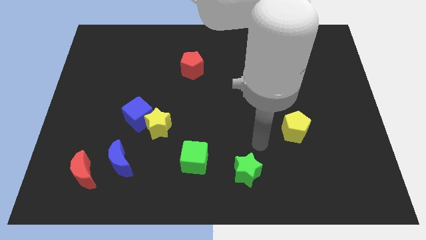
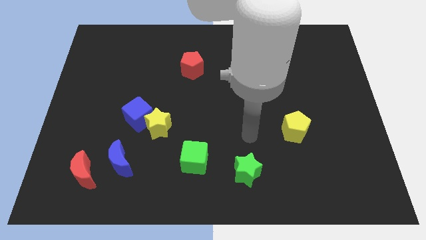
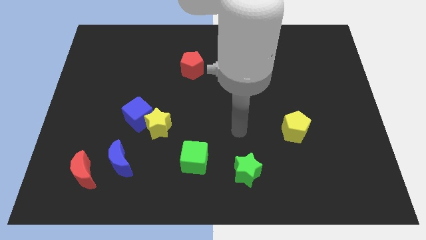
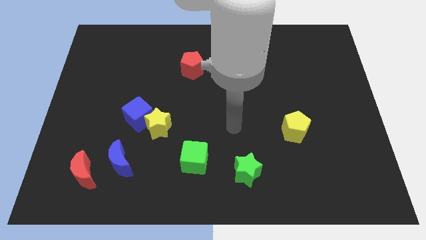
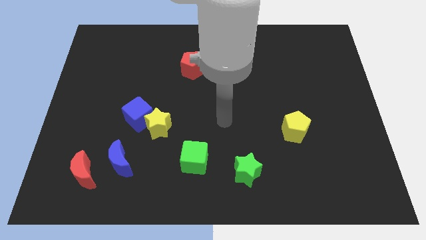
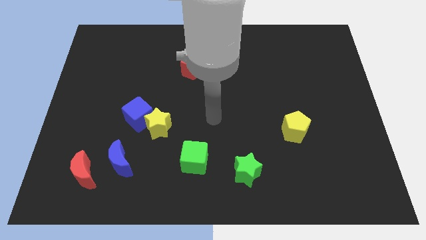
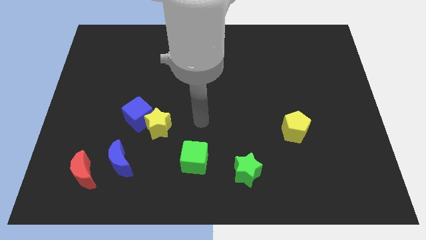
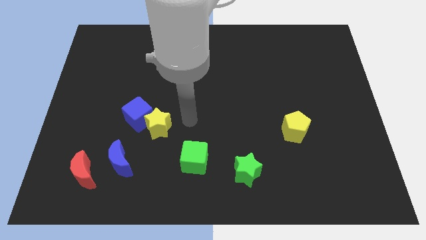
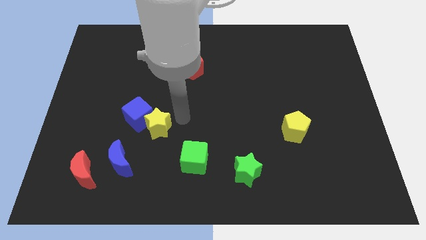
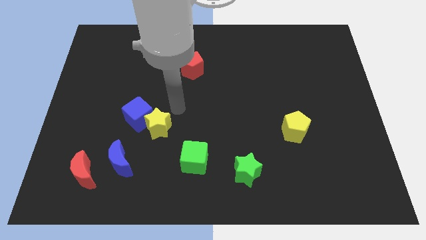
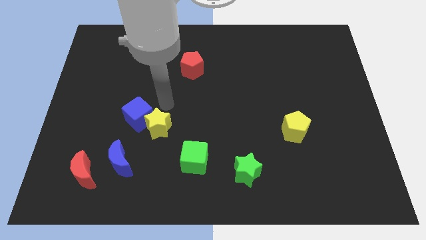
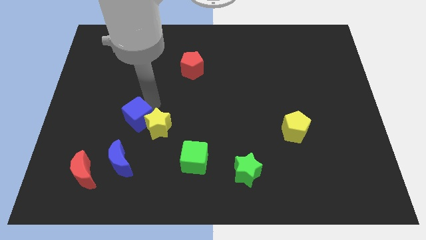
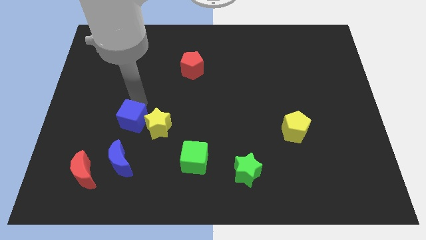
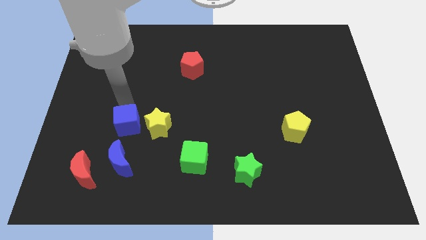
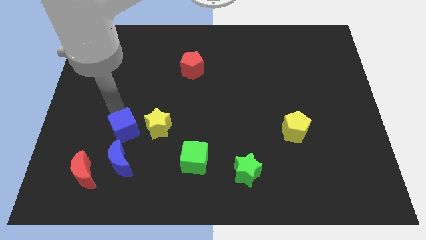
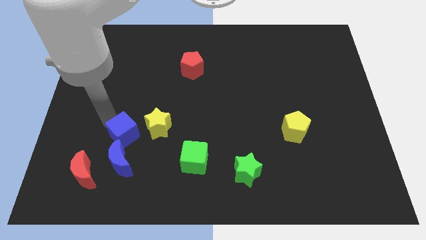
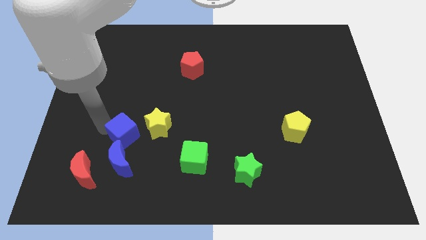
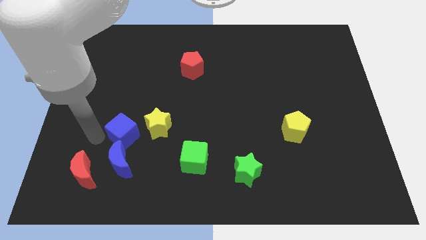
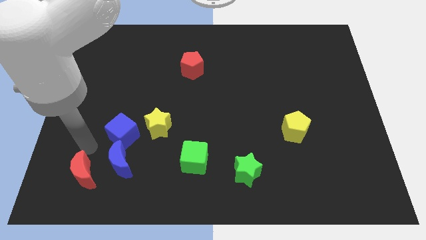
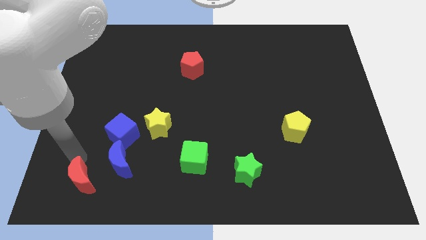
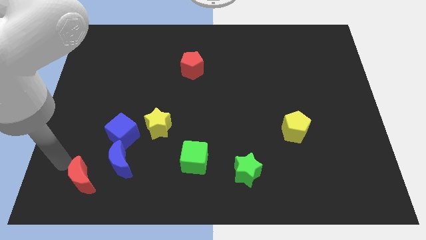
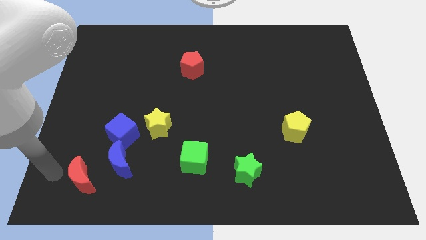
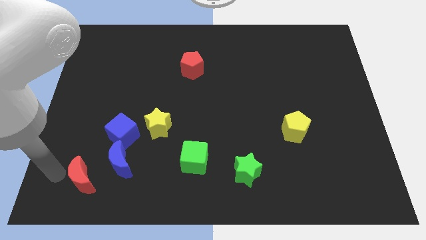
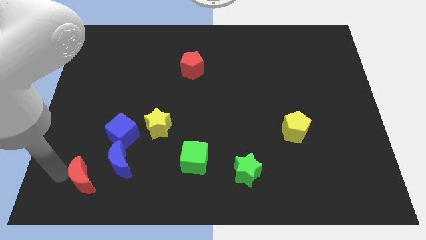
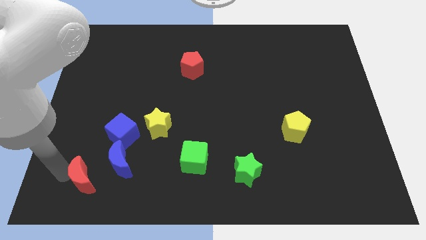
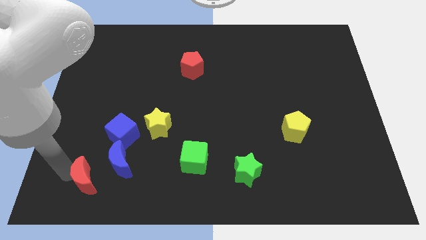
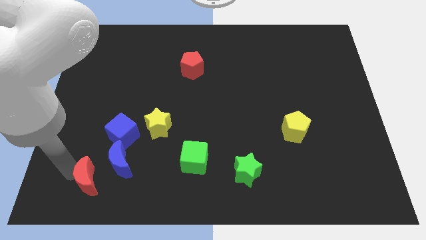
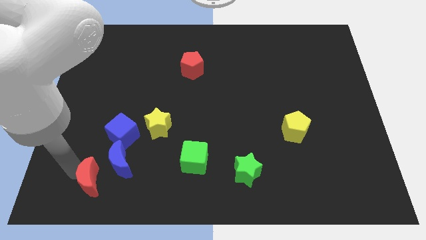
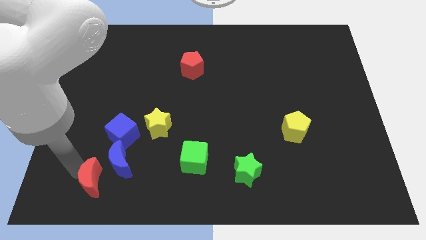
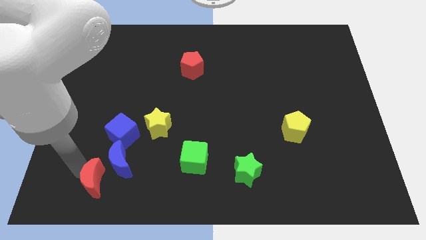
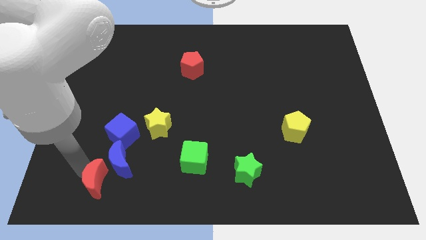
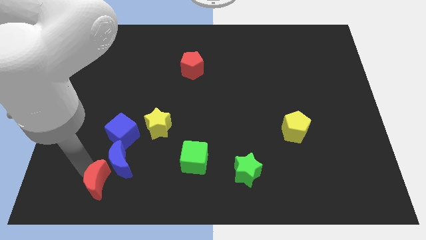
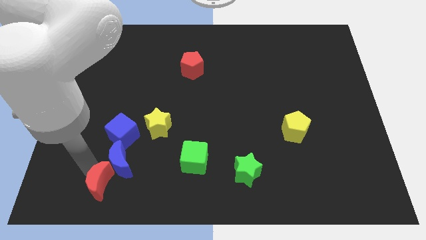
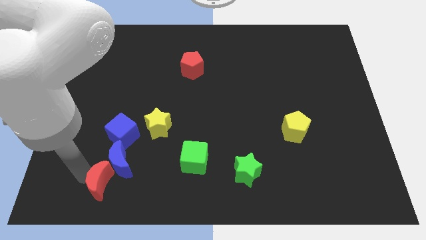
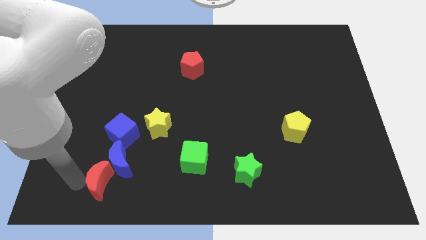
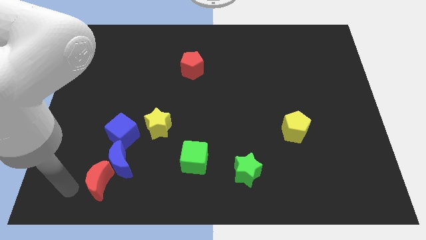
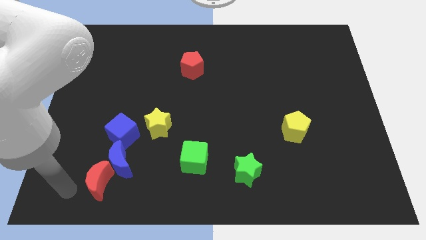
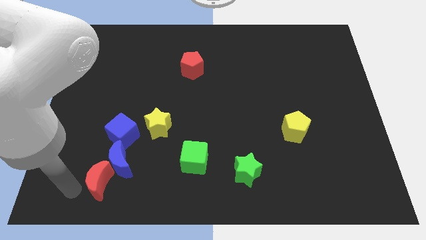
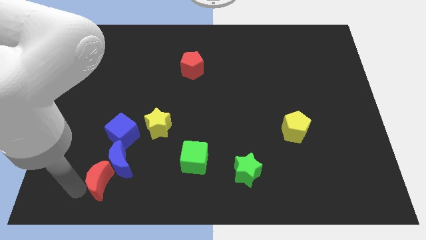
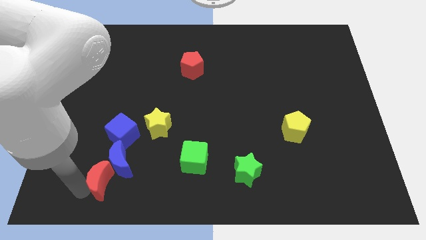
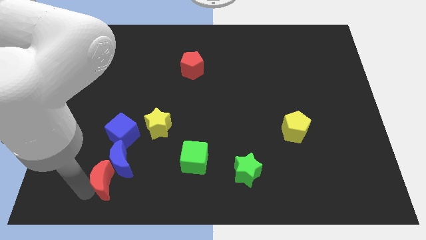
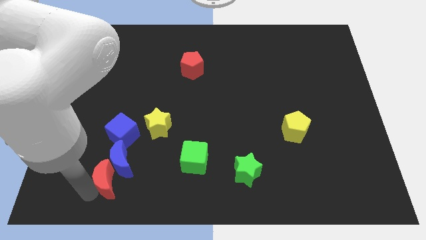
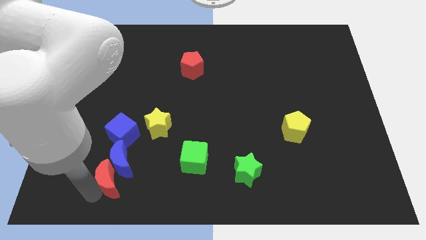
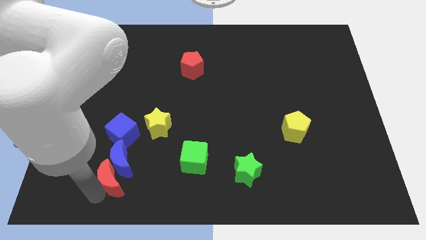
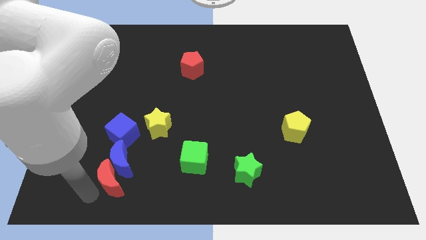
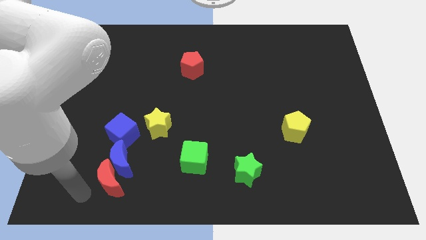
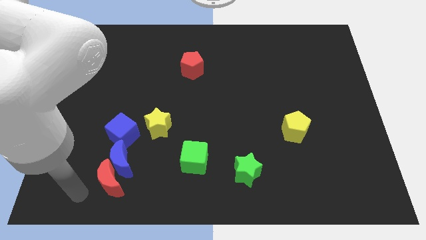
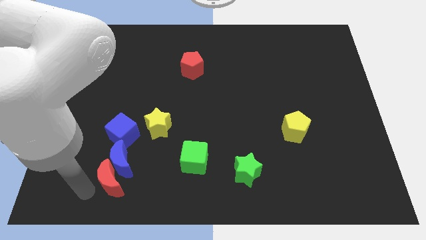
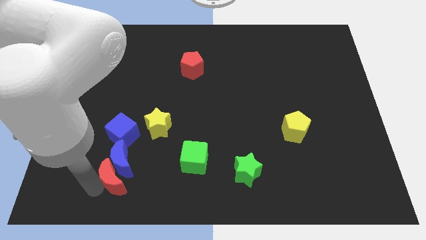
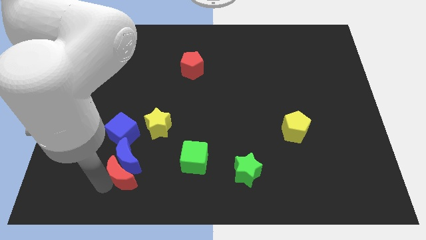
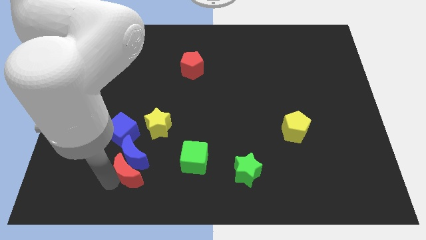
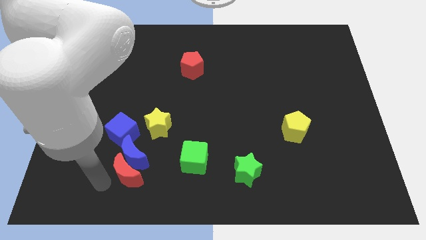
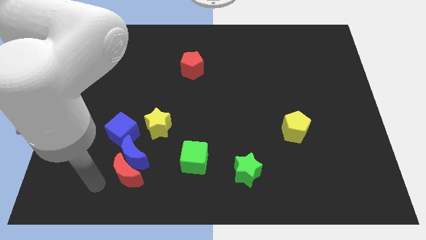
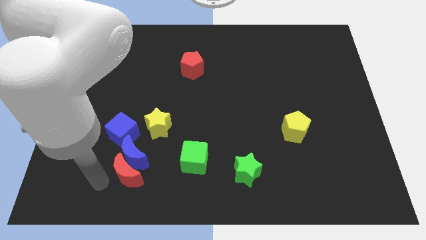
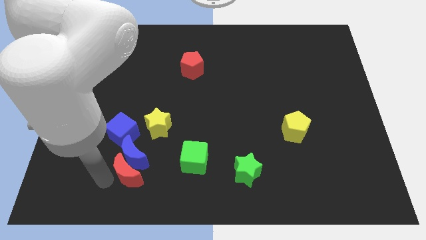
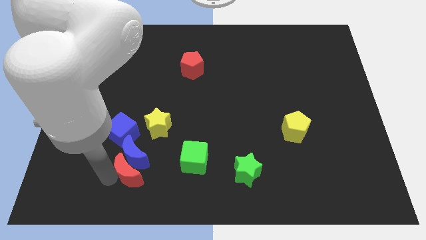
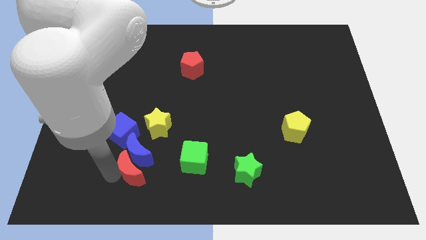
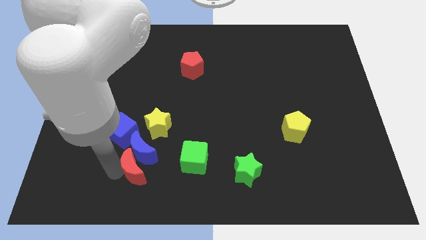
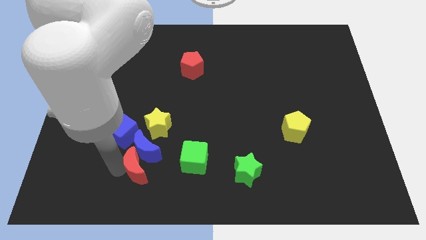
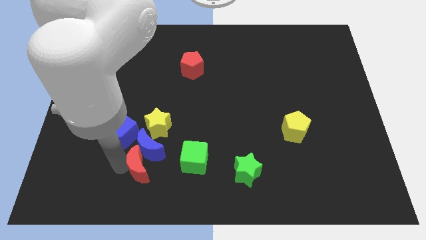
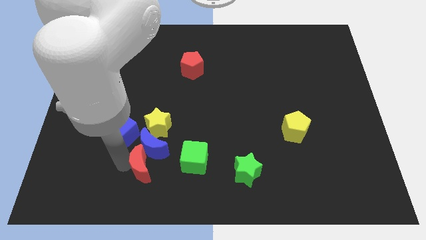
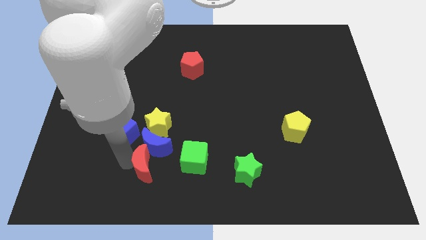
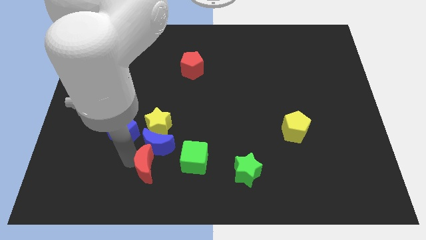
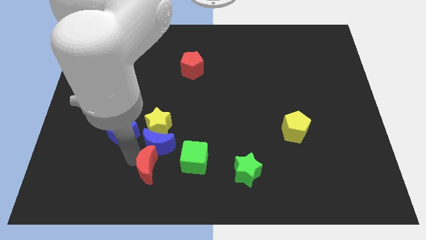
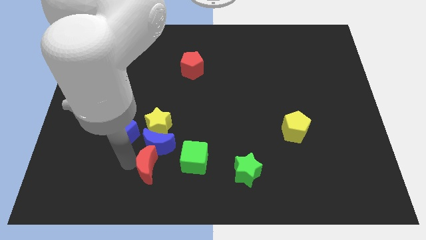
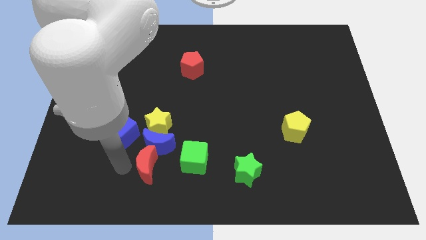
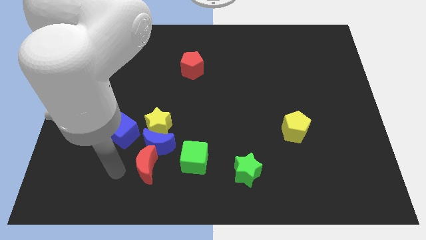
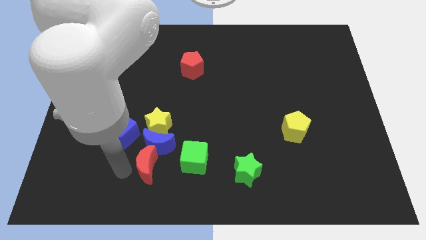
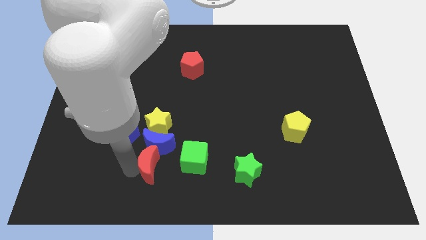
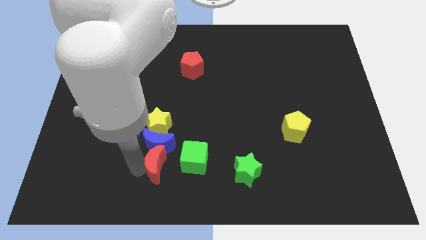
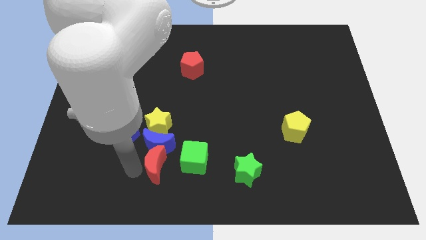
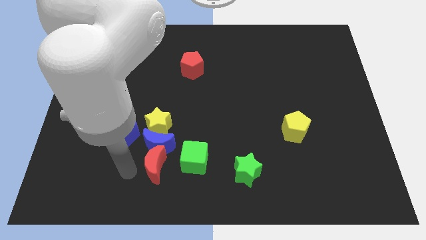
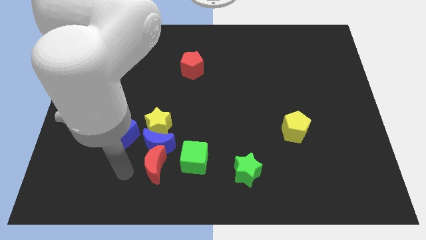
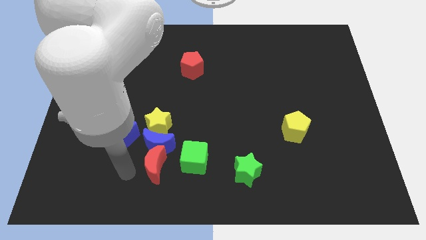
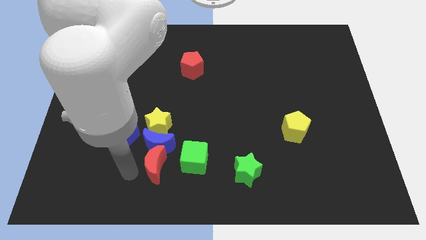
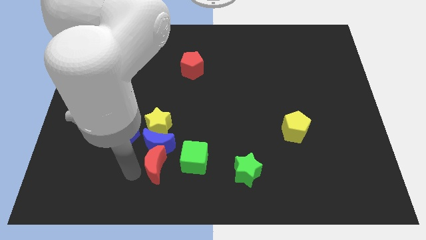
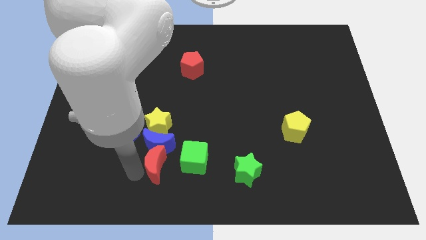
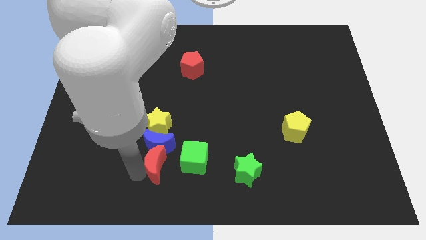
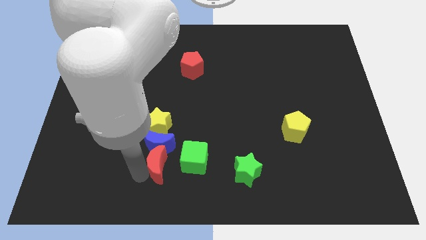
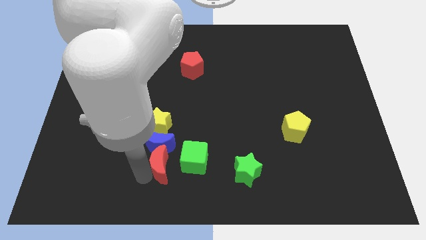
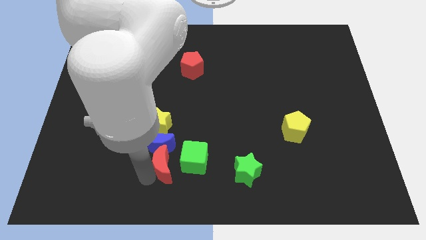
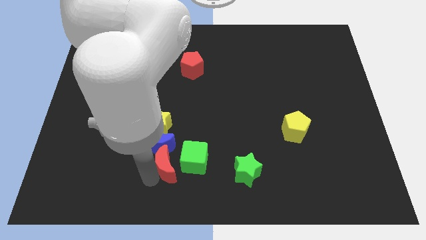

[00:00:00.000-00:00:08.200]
move the red moon to the green cube
